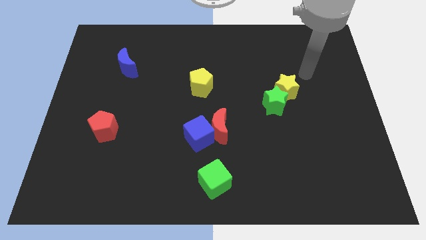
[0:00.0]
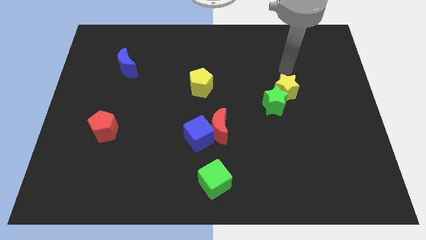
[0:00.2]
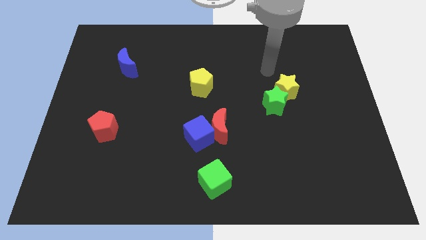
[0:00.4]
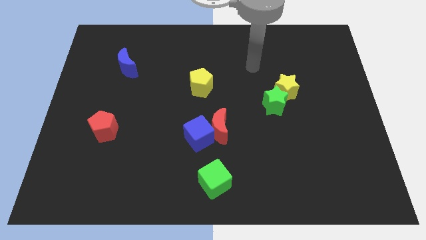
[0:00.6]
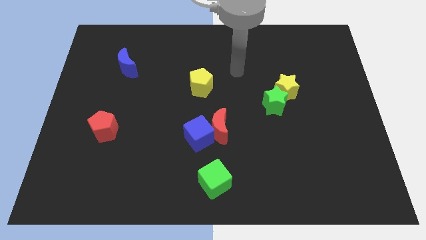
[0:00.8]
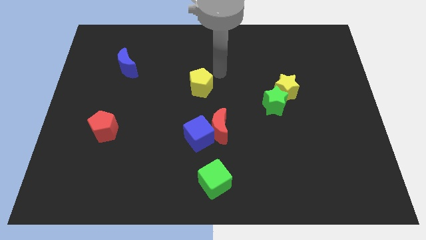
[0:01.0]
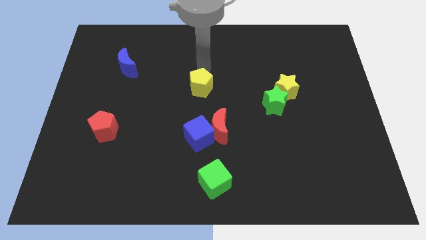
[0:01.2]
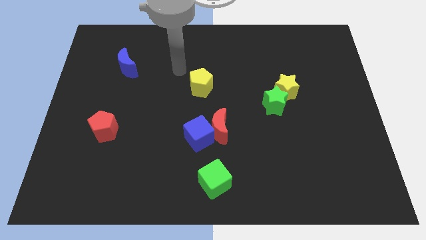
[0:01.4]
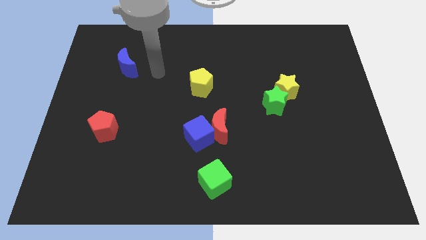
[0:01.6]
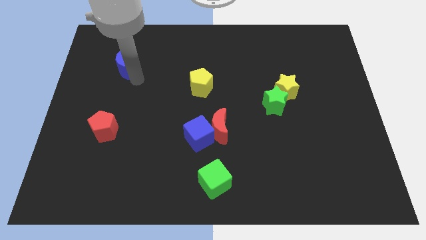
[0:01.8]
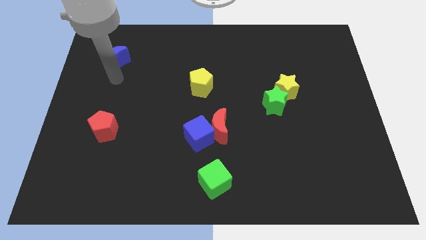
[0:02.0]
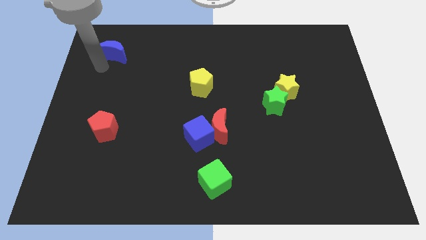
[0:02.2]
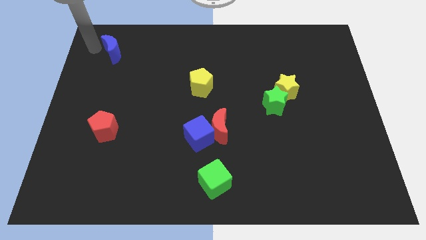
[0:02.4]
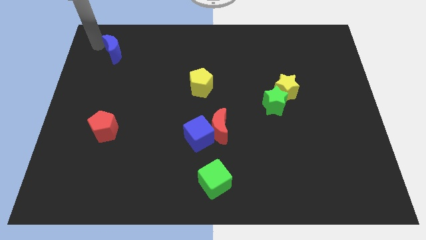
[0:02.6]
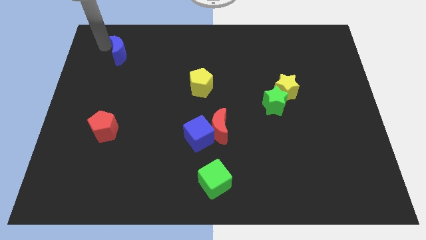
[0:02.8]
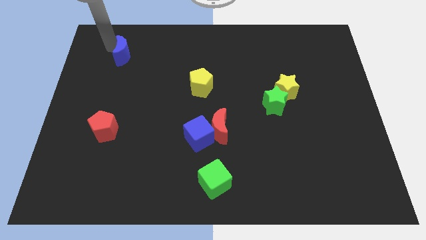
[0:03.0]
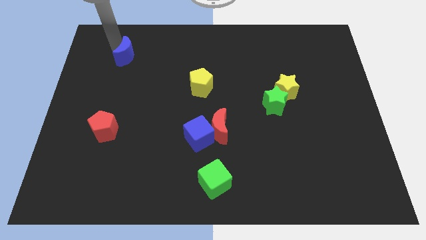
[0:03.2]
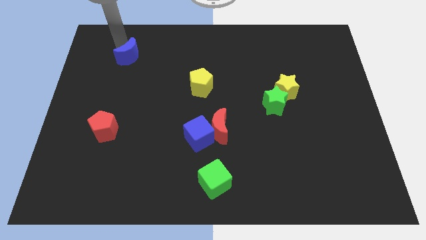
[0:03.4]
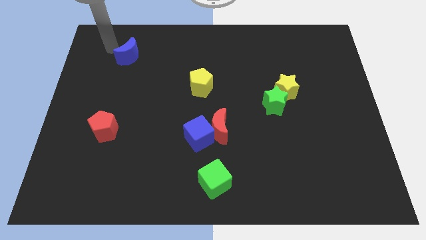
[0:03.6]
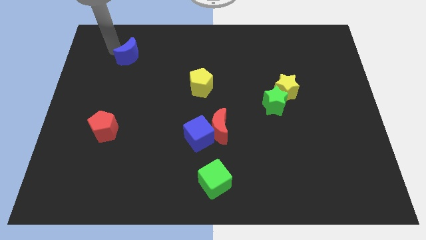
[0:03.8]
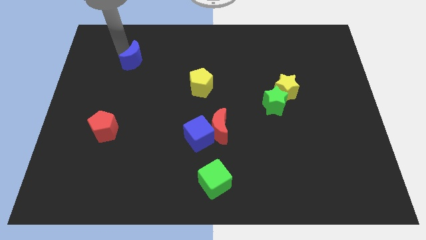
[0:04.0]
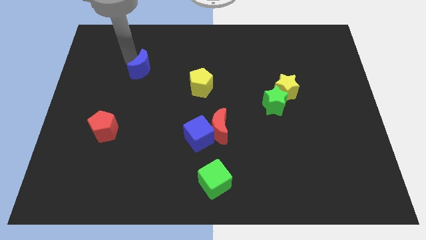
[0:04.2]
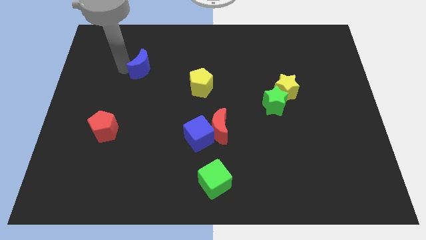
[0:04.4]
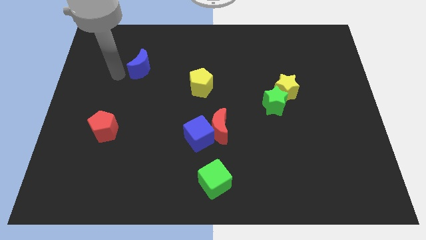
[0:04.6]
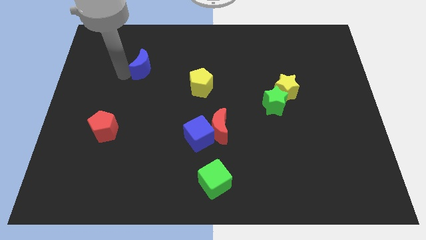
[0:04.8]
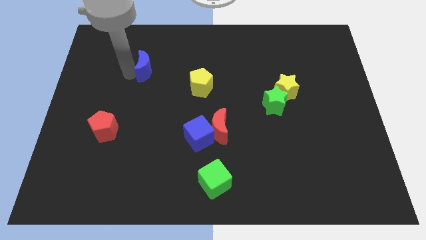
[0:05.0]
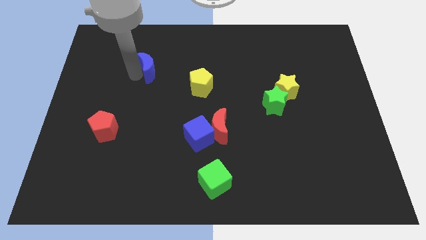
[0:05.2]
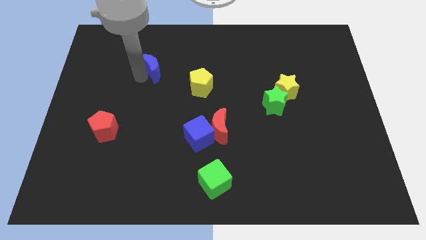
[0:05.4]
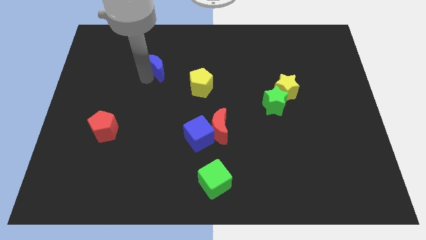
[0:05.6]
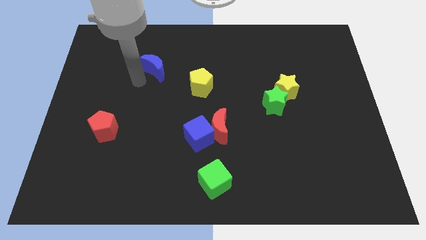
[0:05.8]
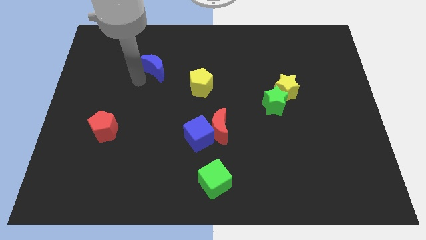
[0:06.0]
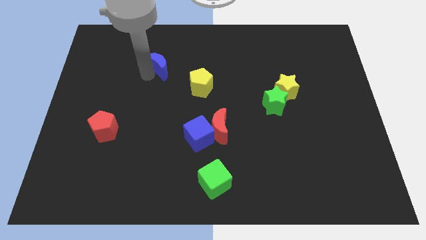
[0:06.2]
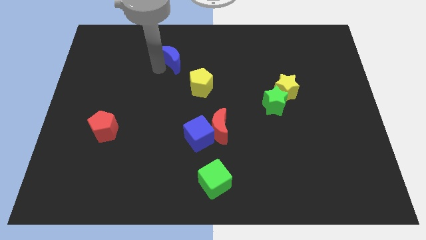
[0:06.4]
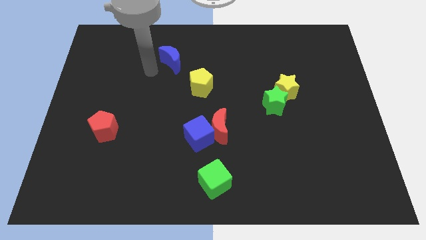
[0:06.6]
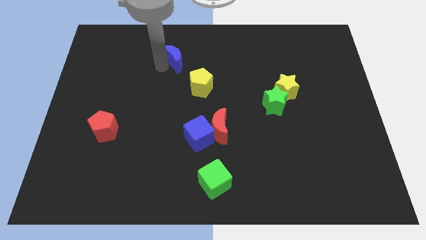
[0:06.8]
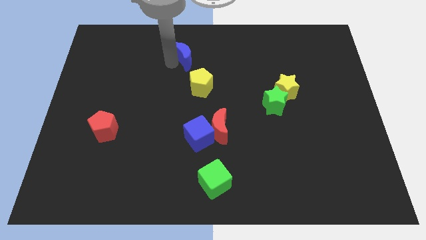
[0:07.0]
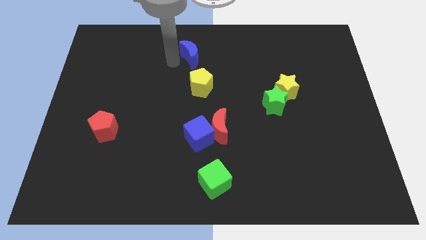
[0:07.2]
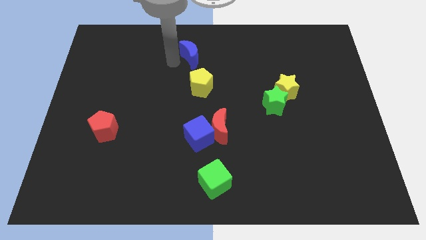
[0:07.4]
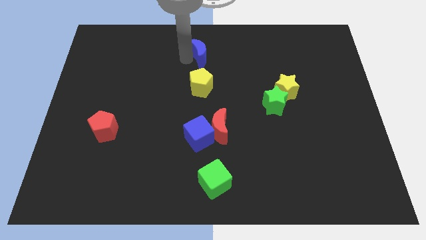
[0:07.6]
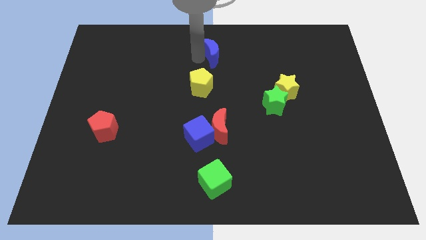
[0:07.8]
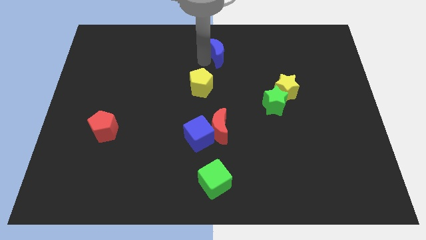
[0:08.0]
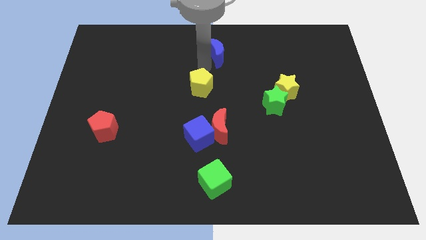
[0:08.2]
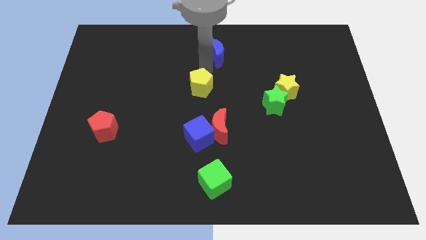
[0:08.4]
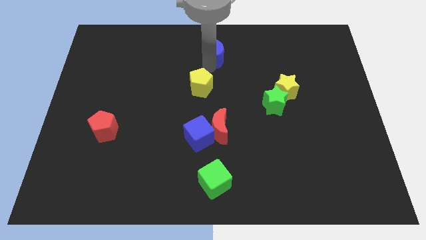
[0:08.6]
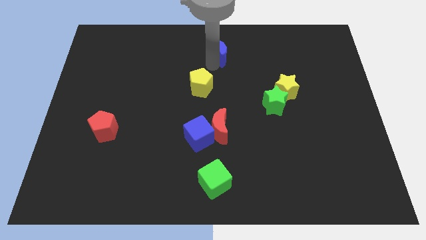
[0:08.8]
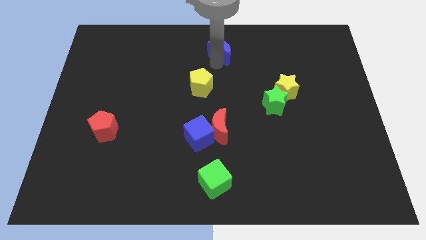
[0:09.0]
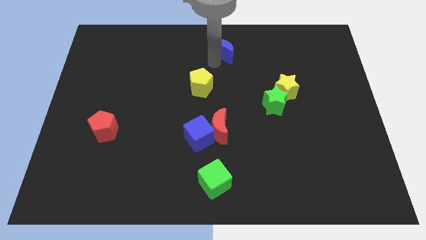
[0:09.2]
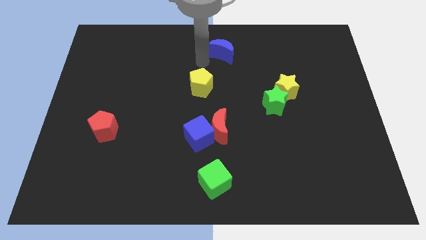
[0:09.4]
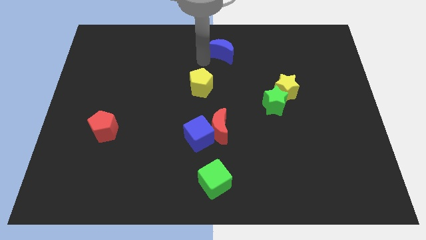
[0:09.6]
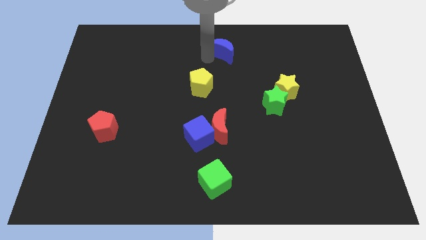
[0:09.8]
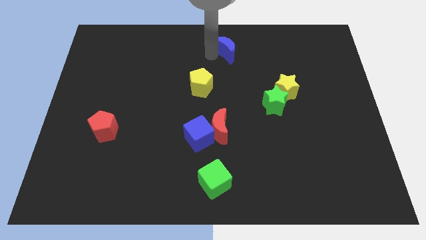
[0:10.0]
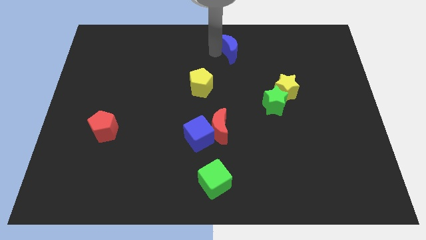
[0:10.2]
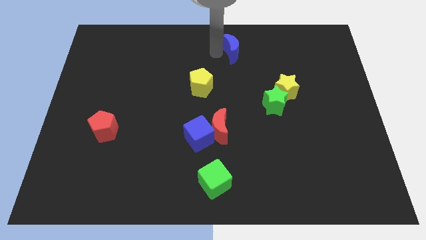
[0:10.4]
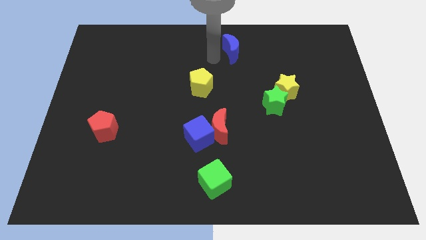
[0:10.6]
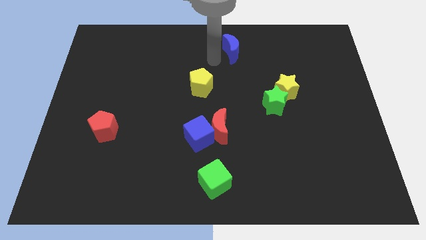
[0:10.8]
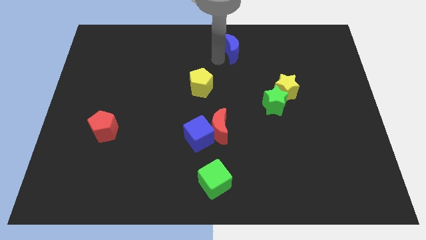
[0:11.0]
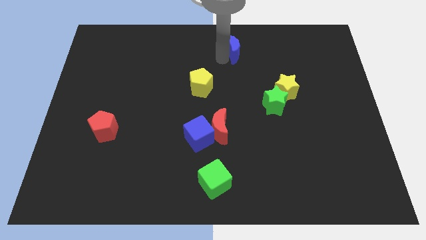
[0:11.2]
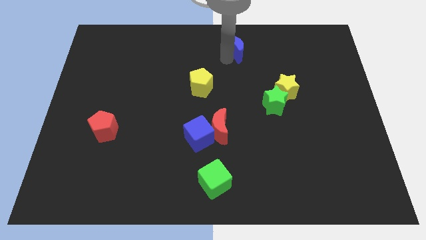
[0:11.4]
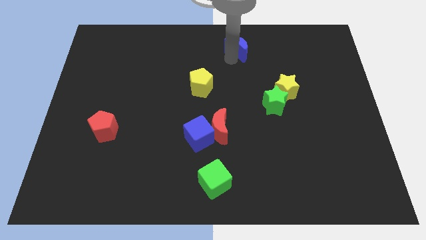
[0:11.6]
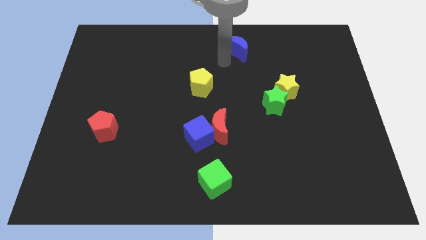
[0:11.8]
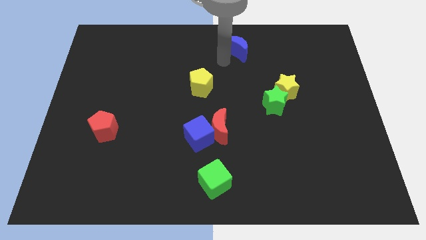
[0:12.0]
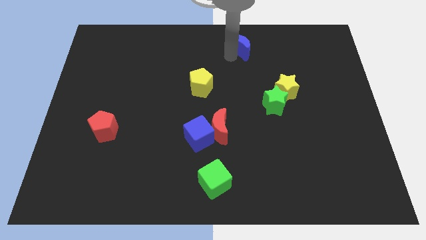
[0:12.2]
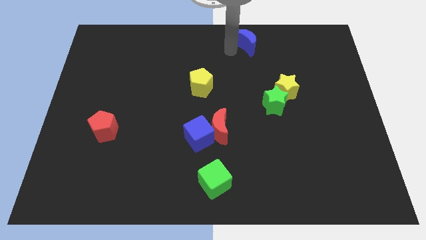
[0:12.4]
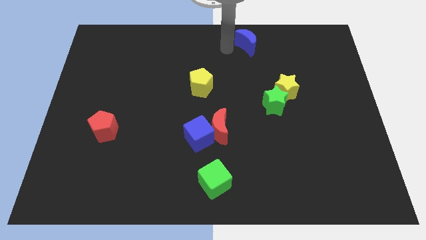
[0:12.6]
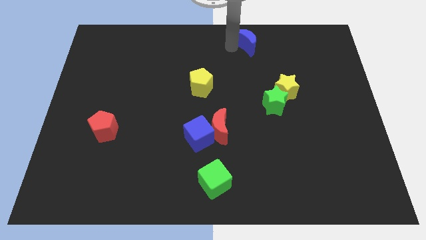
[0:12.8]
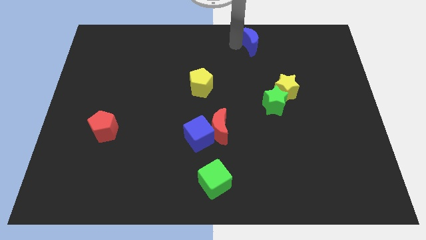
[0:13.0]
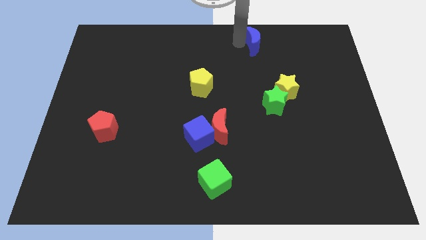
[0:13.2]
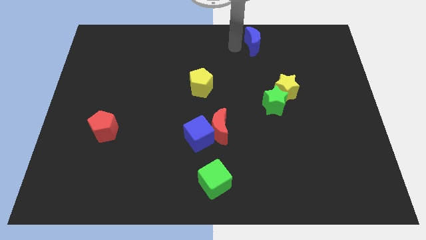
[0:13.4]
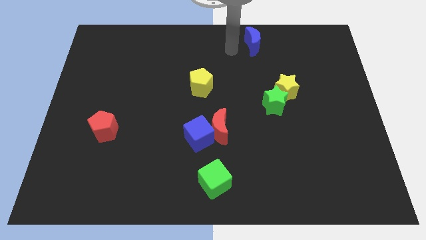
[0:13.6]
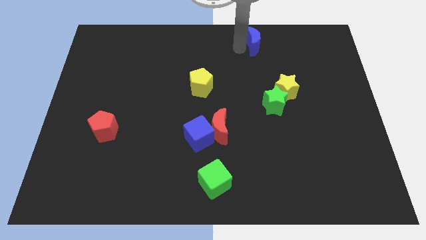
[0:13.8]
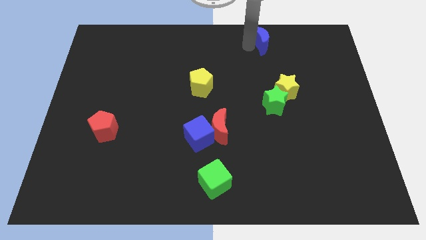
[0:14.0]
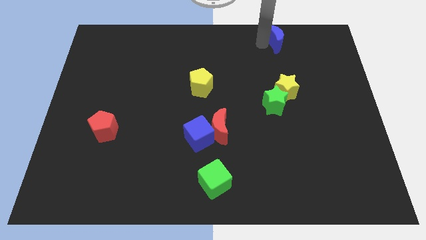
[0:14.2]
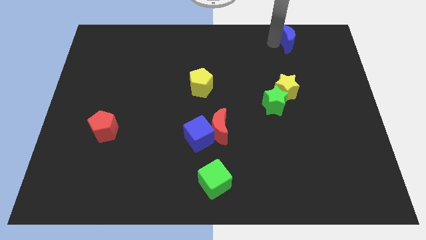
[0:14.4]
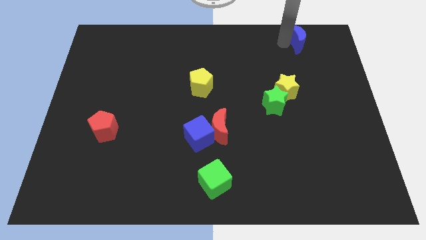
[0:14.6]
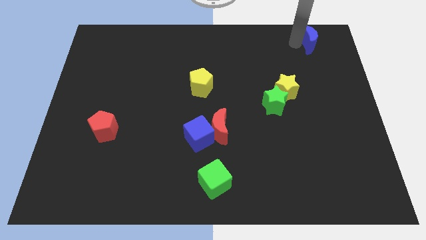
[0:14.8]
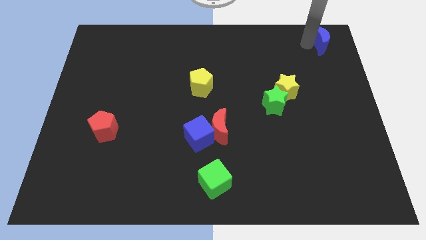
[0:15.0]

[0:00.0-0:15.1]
slide the blue moon to the top right of the board
